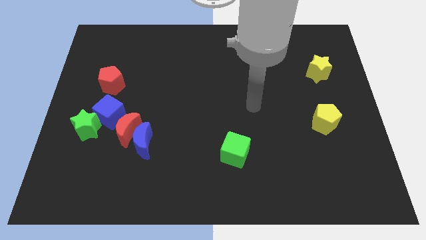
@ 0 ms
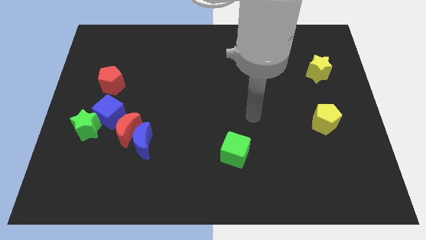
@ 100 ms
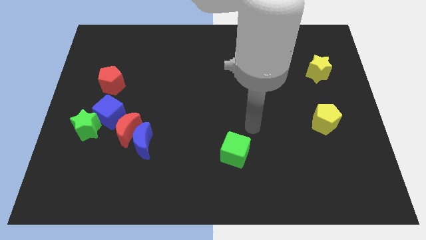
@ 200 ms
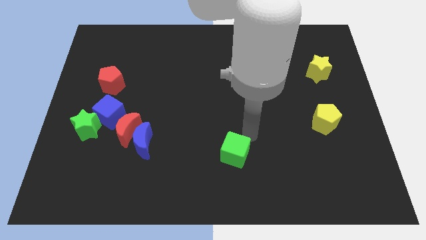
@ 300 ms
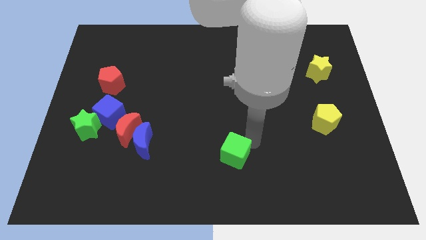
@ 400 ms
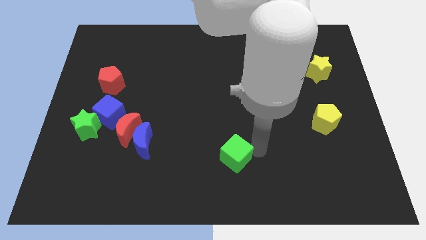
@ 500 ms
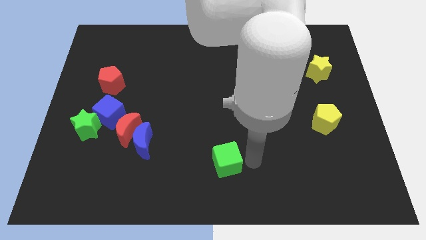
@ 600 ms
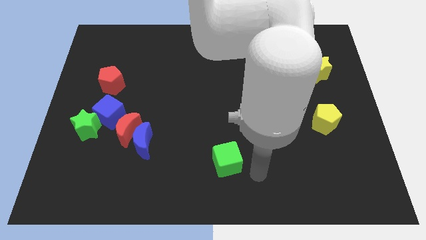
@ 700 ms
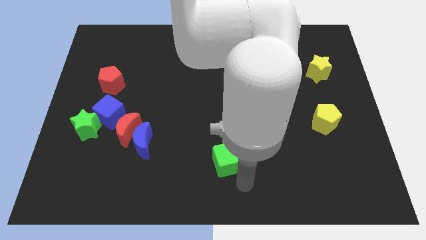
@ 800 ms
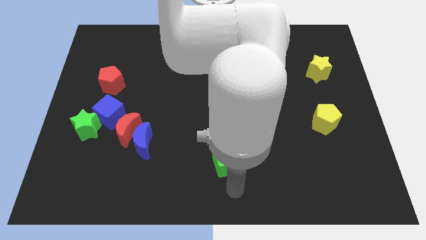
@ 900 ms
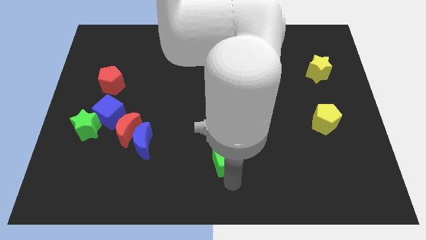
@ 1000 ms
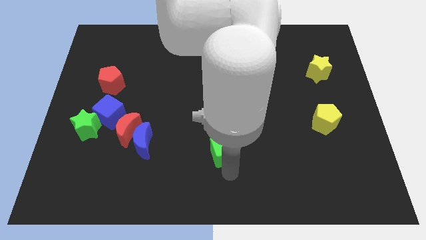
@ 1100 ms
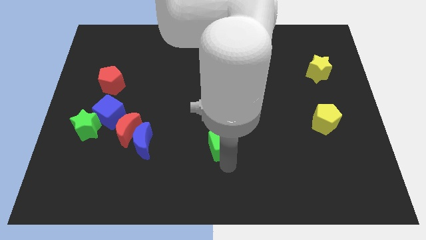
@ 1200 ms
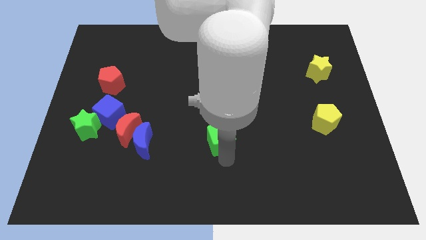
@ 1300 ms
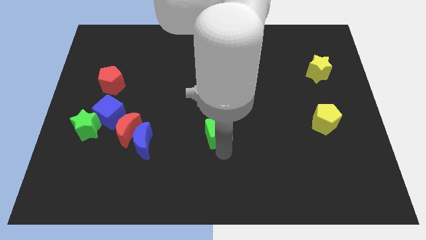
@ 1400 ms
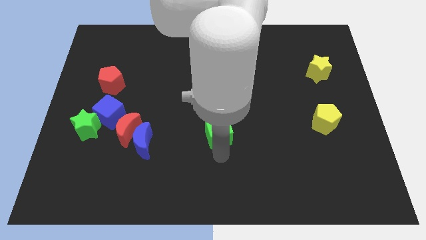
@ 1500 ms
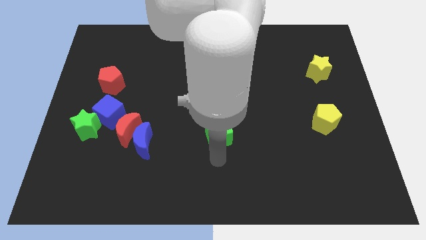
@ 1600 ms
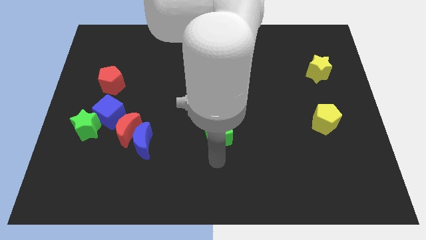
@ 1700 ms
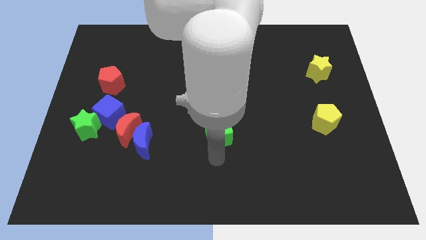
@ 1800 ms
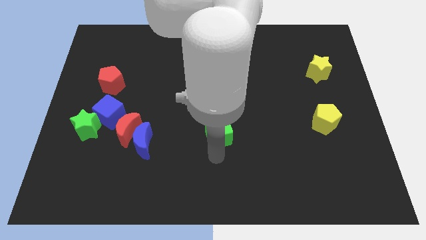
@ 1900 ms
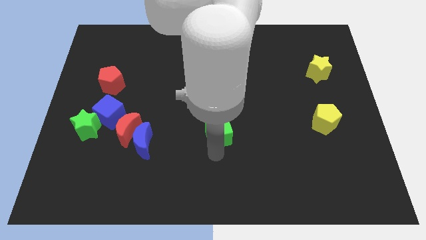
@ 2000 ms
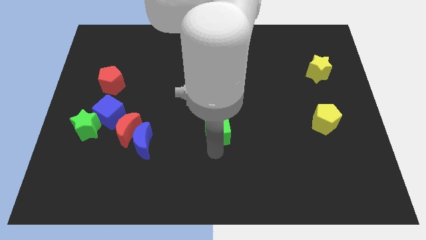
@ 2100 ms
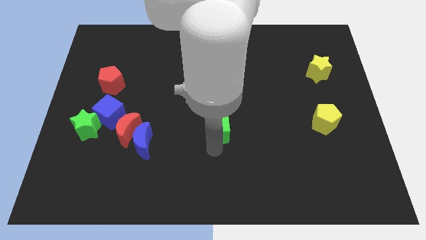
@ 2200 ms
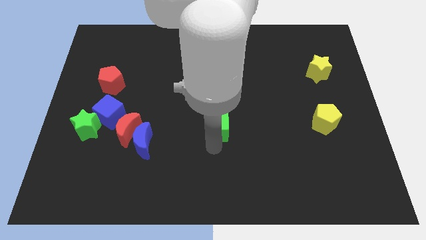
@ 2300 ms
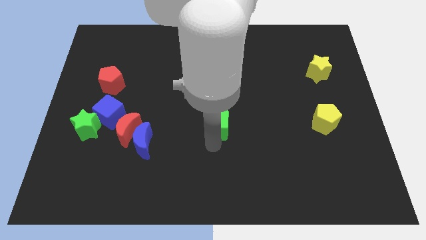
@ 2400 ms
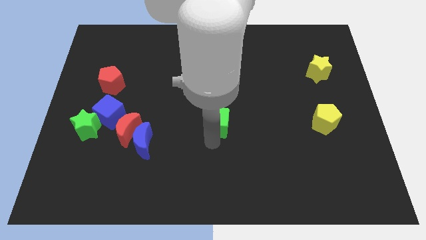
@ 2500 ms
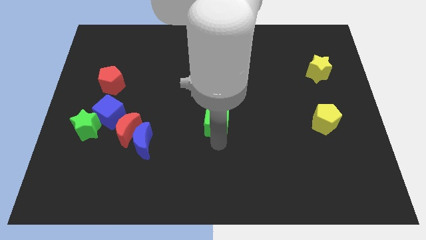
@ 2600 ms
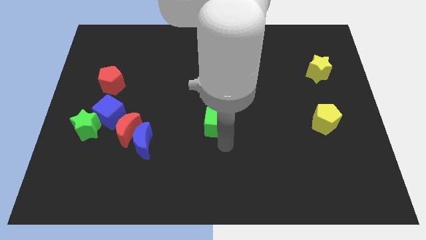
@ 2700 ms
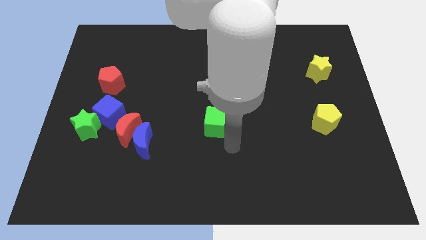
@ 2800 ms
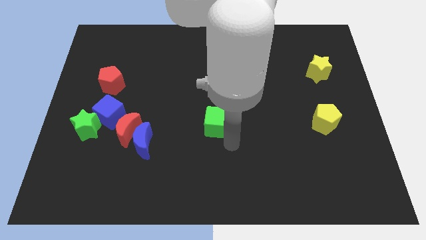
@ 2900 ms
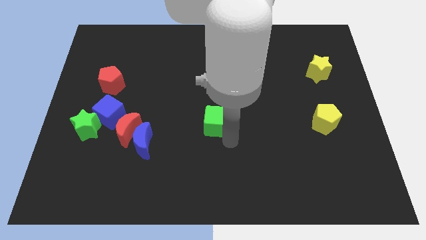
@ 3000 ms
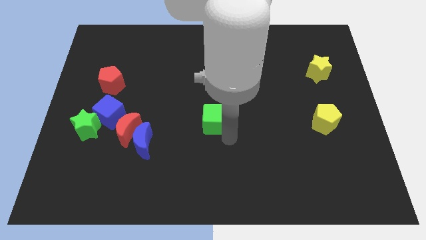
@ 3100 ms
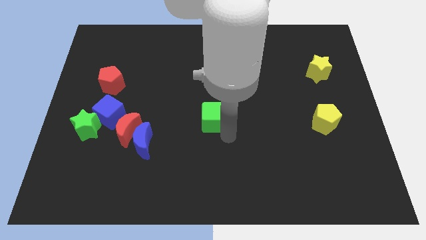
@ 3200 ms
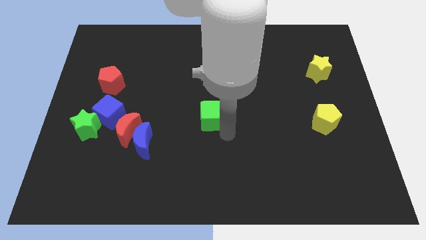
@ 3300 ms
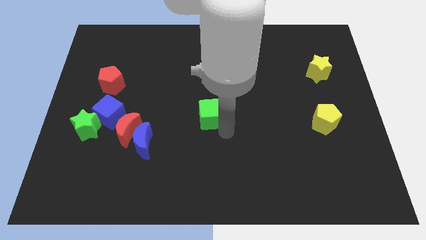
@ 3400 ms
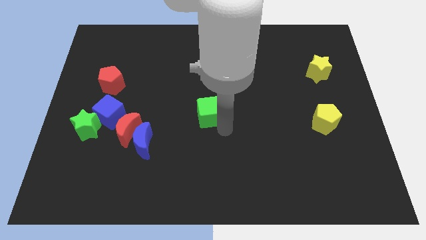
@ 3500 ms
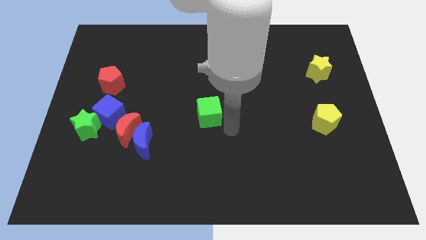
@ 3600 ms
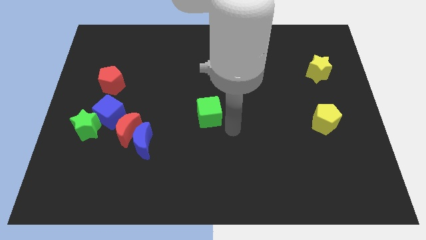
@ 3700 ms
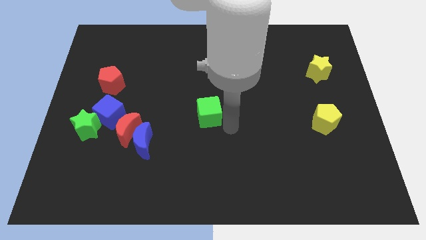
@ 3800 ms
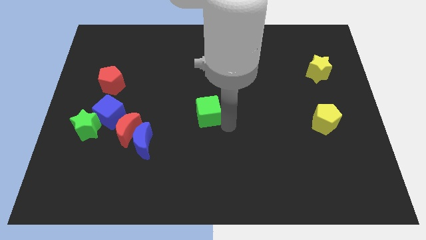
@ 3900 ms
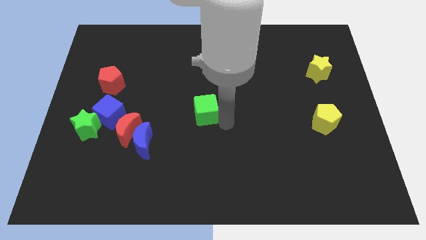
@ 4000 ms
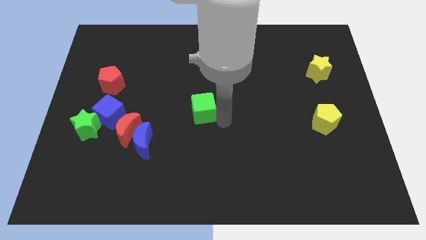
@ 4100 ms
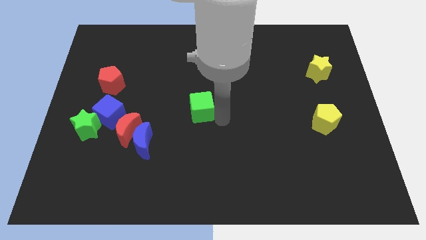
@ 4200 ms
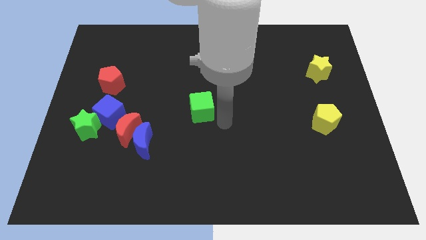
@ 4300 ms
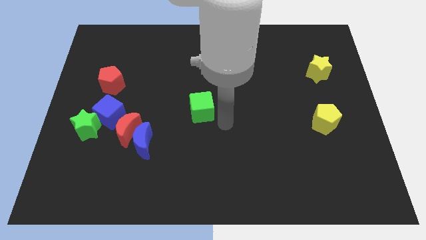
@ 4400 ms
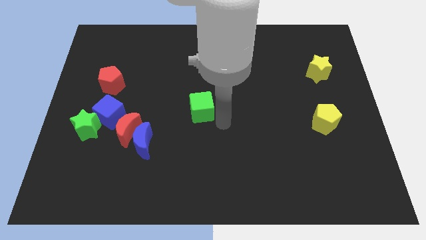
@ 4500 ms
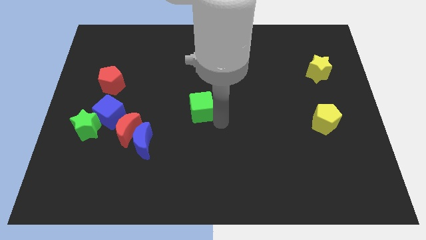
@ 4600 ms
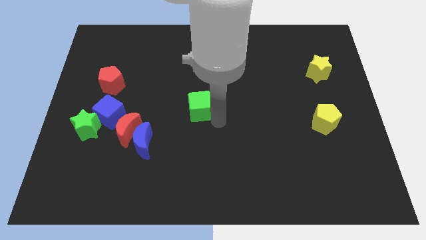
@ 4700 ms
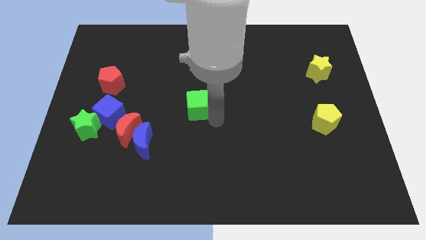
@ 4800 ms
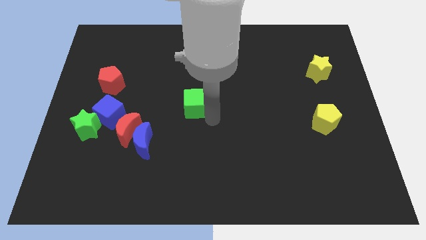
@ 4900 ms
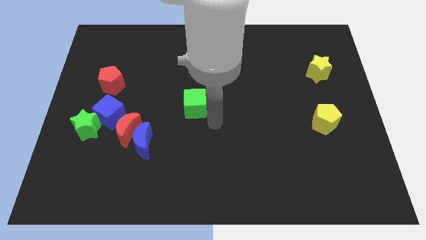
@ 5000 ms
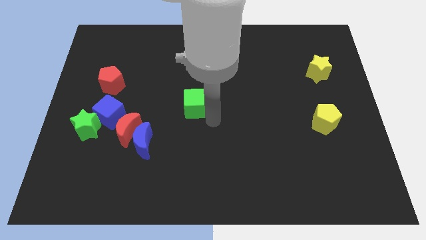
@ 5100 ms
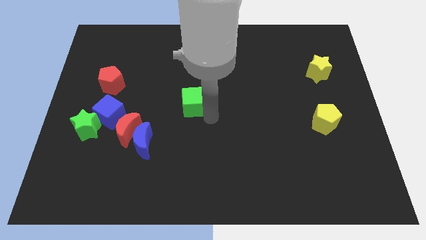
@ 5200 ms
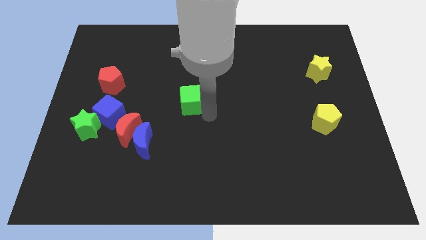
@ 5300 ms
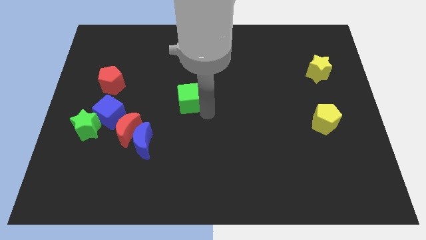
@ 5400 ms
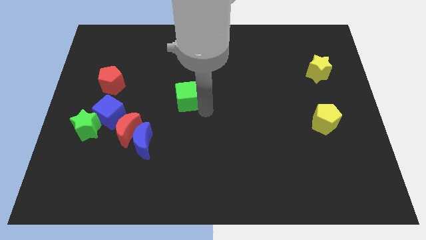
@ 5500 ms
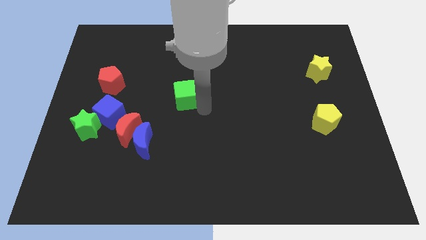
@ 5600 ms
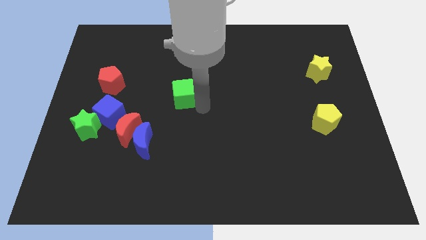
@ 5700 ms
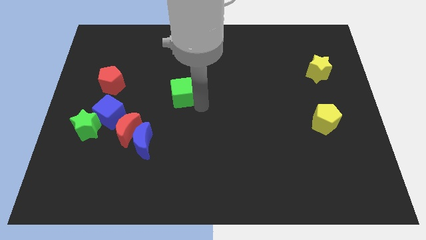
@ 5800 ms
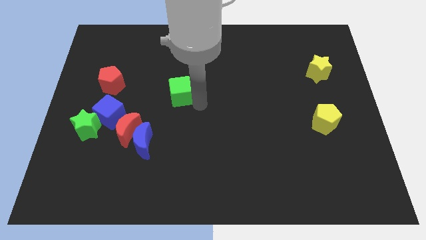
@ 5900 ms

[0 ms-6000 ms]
slide the green cube diagonally up and to the left

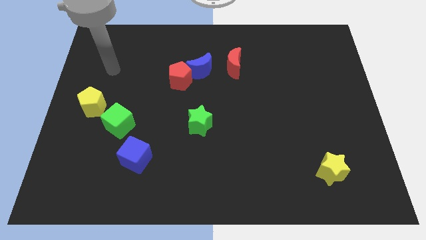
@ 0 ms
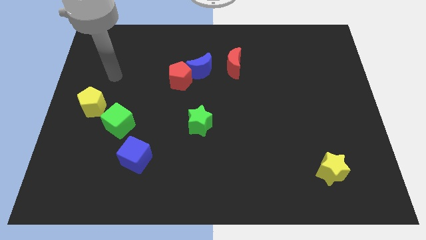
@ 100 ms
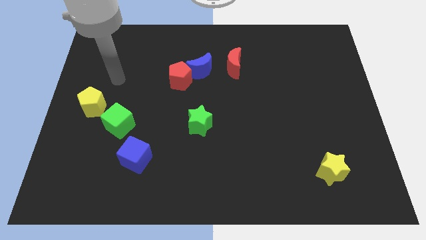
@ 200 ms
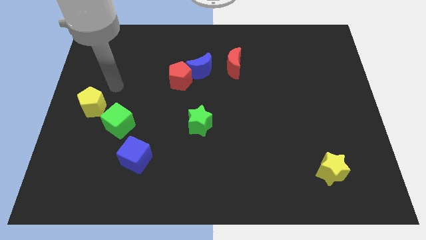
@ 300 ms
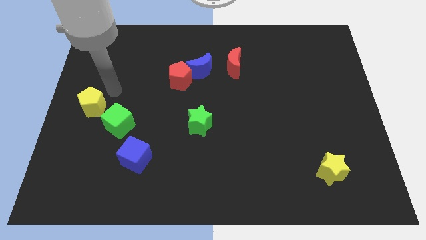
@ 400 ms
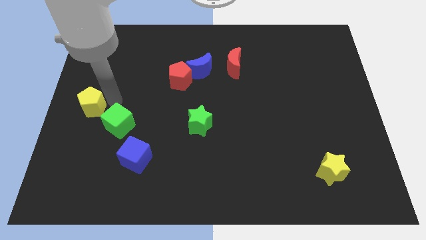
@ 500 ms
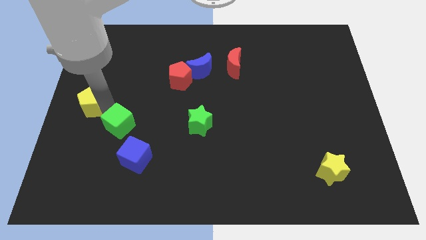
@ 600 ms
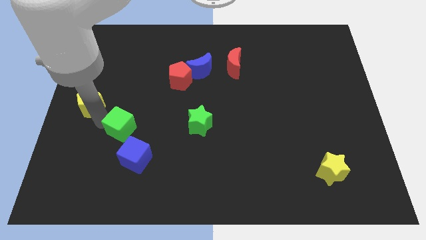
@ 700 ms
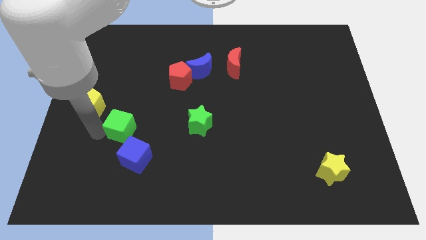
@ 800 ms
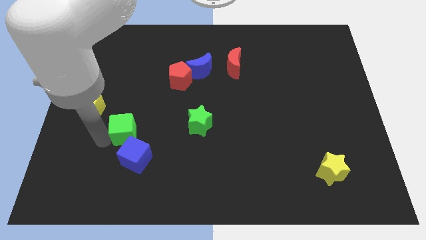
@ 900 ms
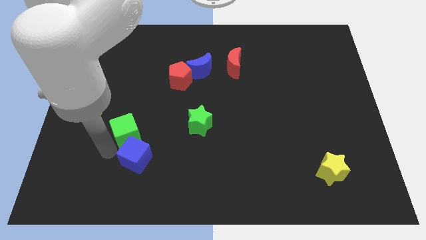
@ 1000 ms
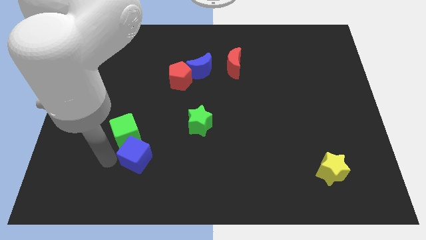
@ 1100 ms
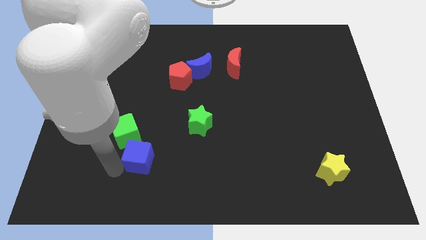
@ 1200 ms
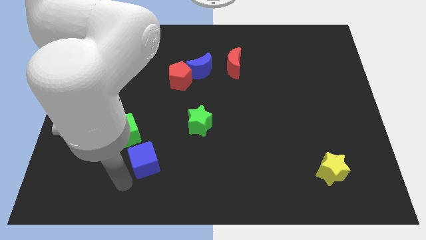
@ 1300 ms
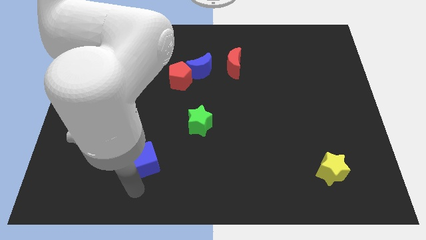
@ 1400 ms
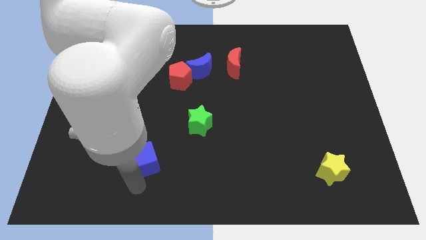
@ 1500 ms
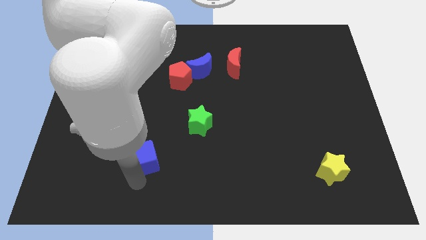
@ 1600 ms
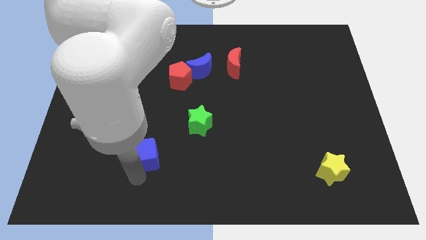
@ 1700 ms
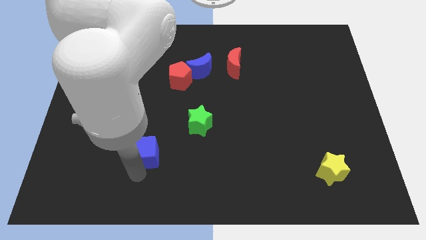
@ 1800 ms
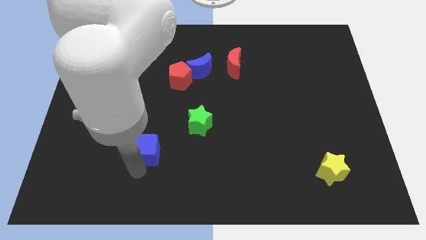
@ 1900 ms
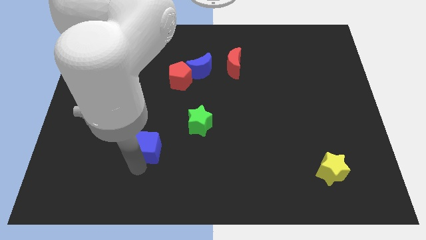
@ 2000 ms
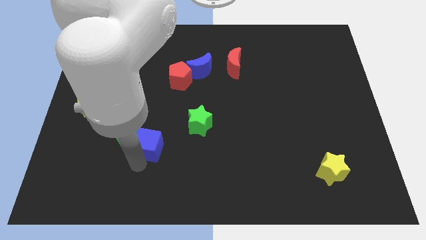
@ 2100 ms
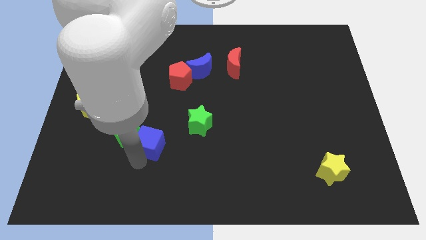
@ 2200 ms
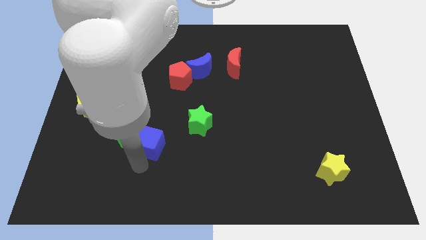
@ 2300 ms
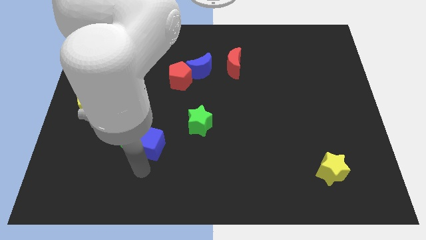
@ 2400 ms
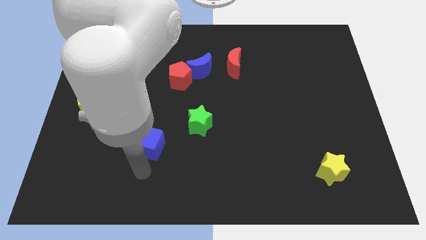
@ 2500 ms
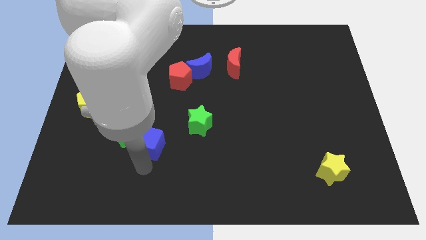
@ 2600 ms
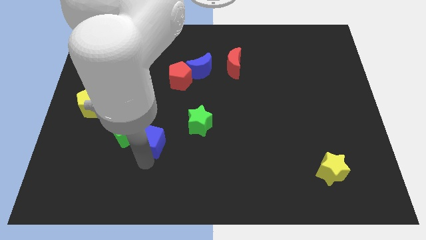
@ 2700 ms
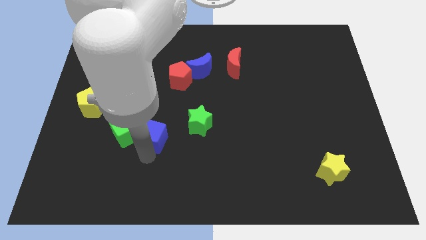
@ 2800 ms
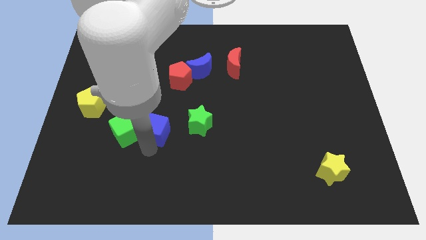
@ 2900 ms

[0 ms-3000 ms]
slightly move the blue cube diagonally up and right
